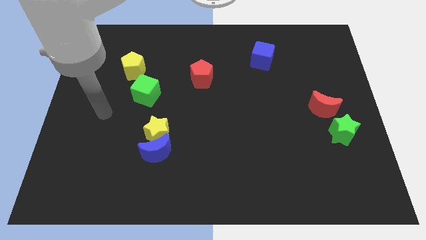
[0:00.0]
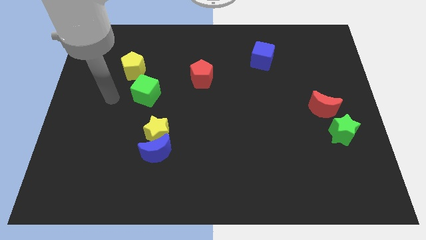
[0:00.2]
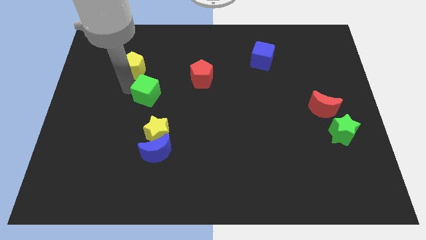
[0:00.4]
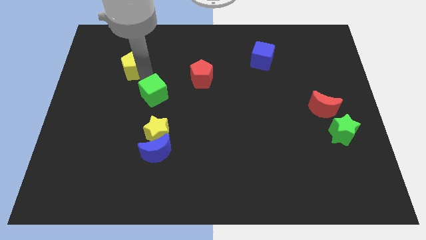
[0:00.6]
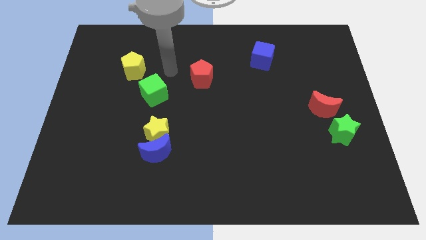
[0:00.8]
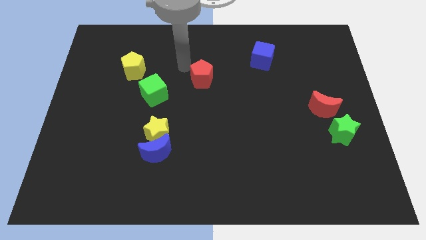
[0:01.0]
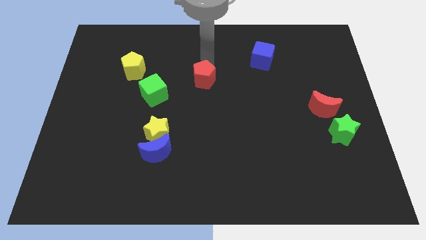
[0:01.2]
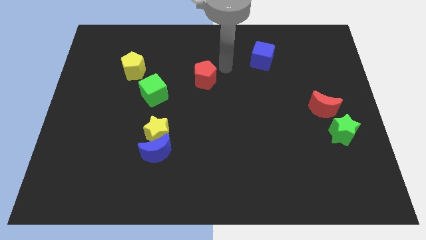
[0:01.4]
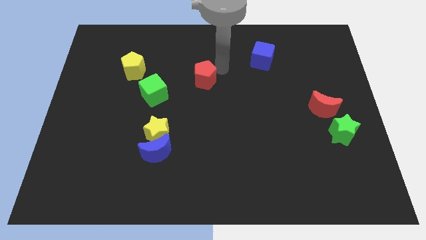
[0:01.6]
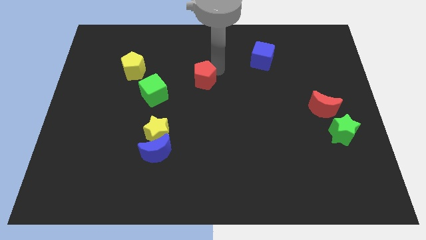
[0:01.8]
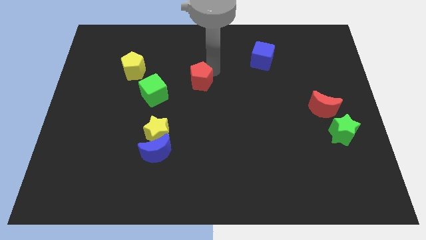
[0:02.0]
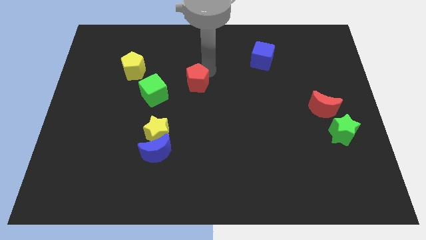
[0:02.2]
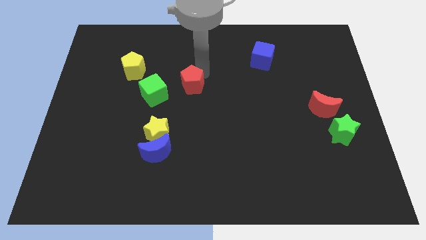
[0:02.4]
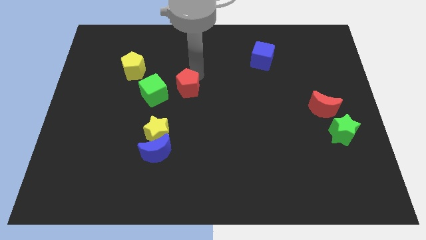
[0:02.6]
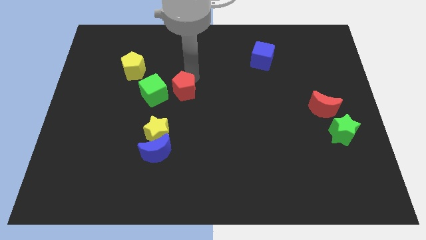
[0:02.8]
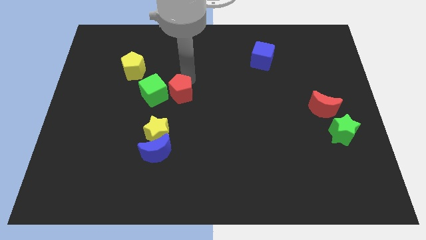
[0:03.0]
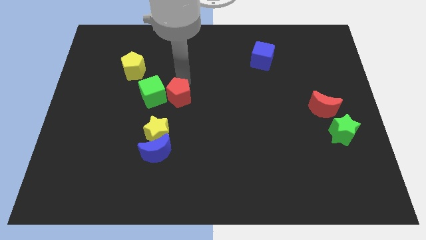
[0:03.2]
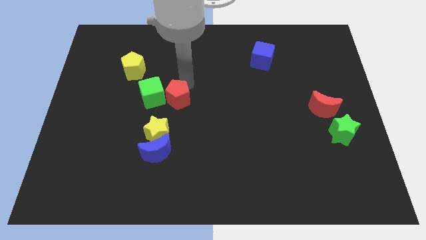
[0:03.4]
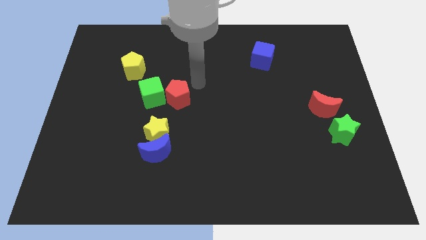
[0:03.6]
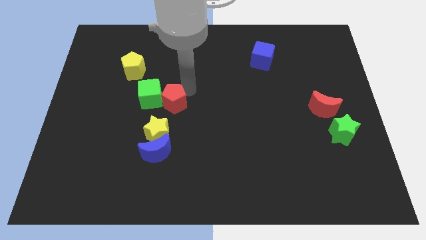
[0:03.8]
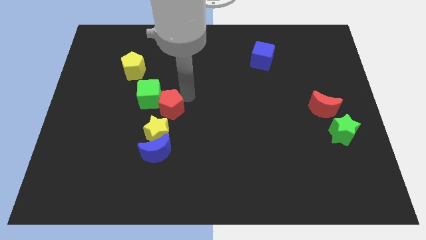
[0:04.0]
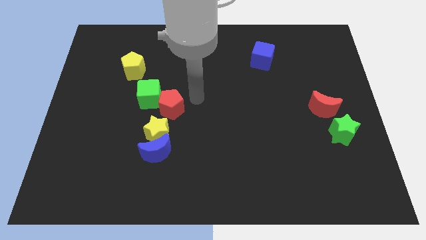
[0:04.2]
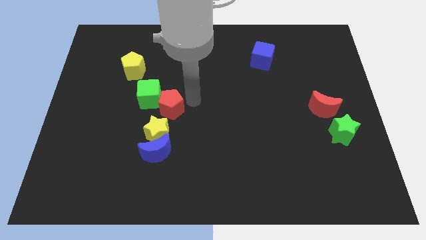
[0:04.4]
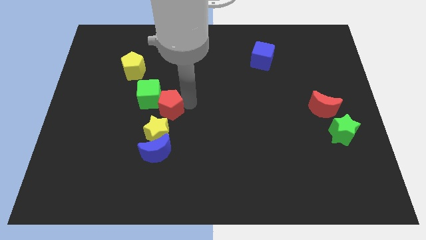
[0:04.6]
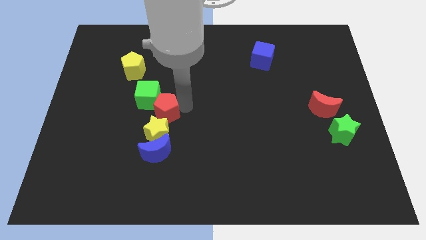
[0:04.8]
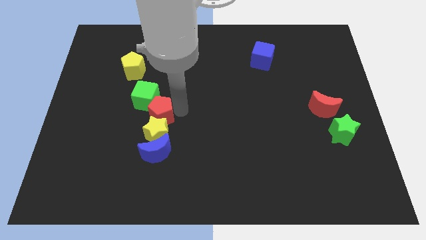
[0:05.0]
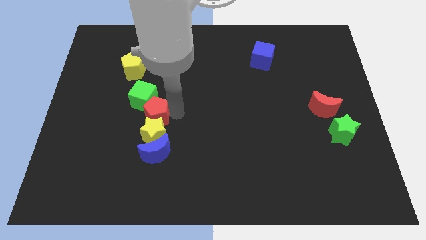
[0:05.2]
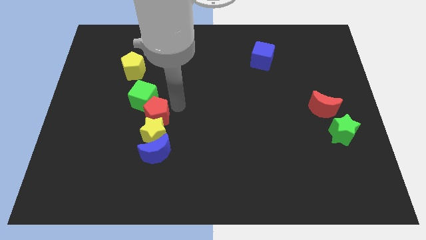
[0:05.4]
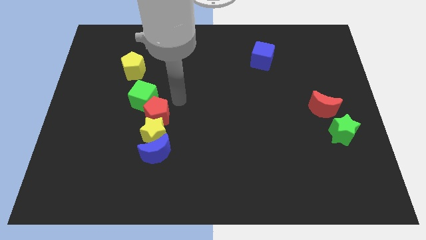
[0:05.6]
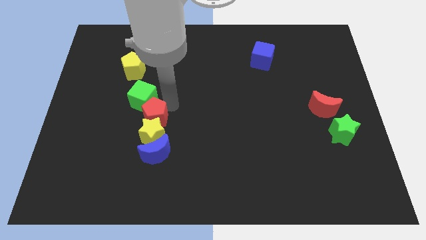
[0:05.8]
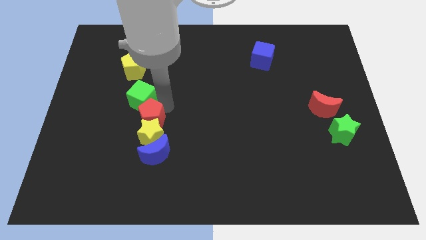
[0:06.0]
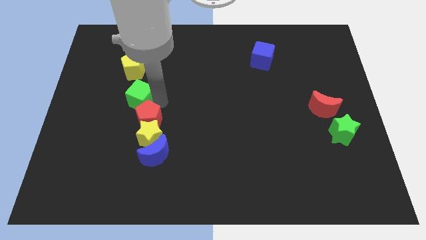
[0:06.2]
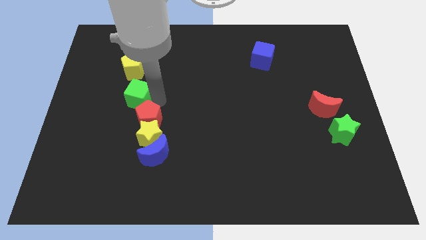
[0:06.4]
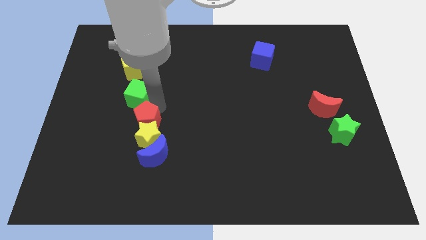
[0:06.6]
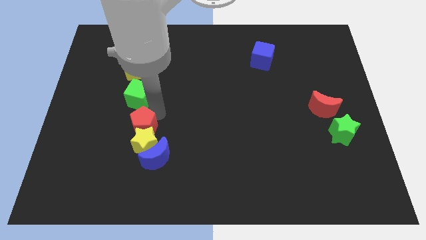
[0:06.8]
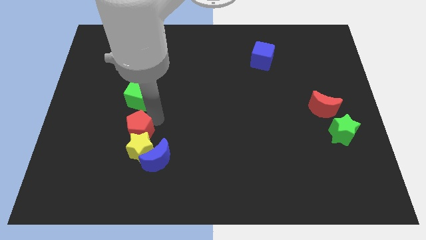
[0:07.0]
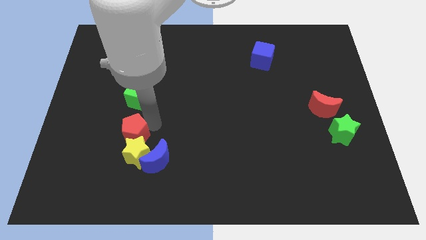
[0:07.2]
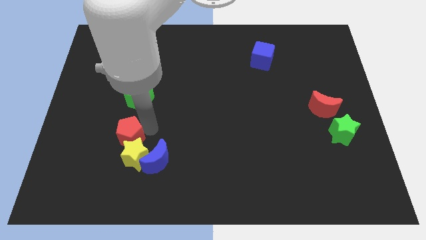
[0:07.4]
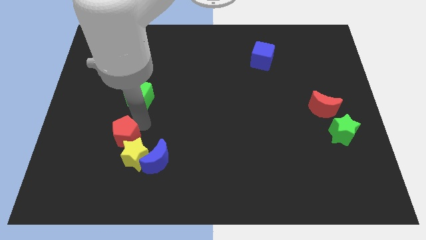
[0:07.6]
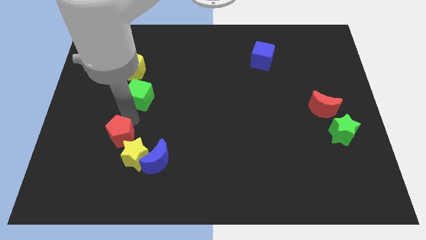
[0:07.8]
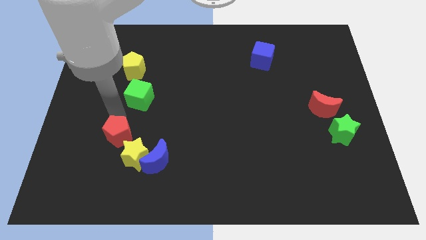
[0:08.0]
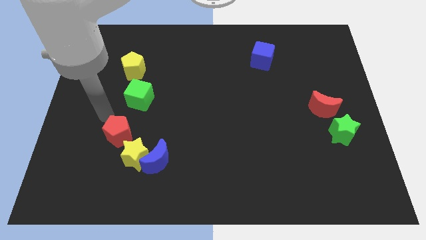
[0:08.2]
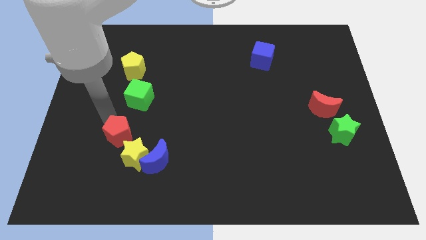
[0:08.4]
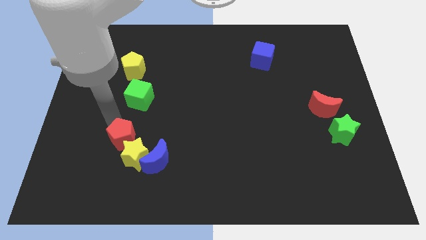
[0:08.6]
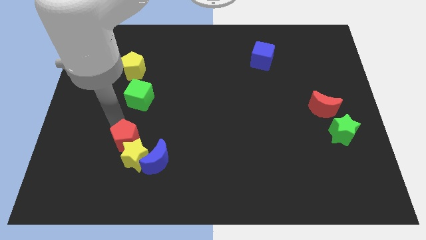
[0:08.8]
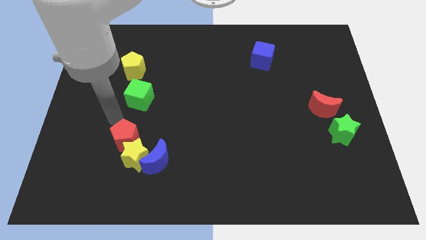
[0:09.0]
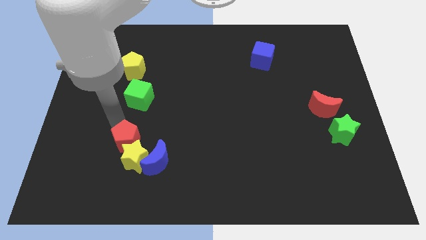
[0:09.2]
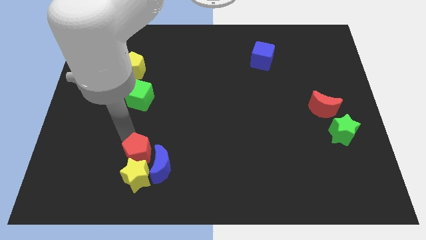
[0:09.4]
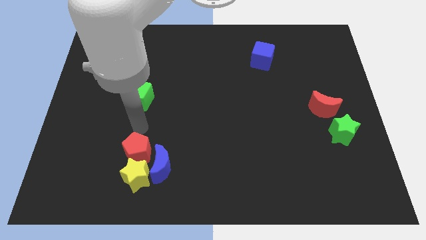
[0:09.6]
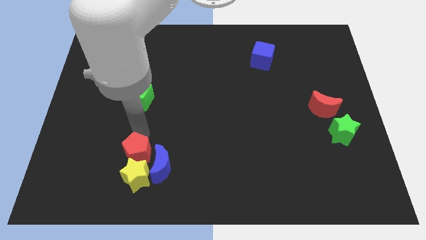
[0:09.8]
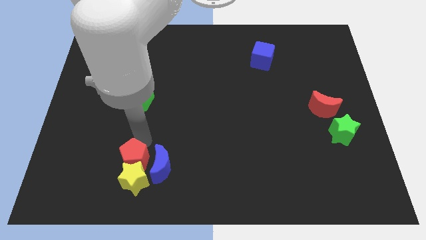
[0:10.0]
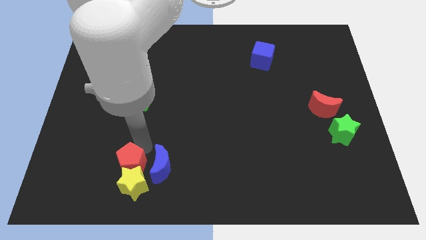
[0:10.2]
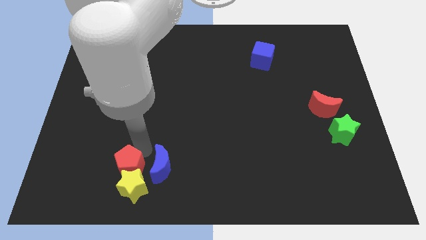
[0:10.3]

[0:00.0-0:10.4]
put the red pentagon to the bottom left of the blue moon

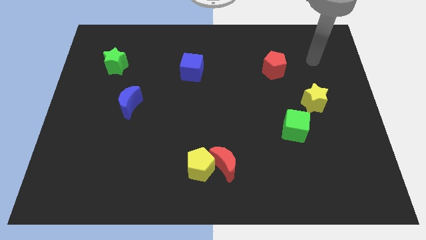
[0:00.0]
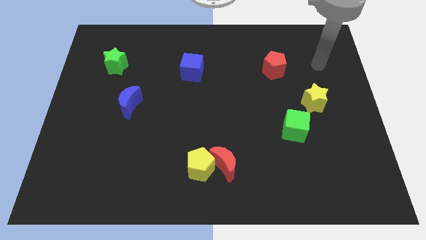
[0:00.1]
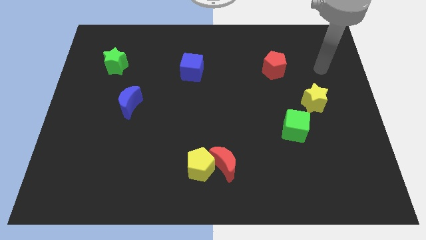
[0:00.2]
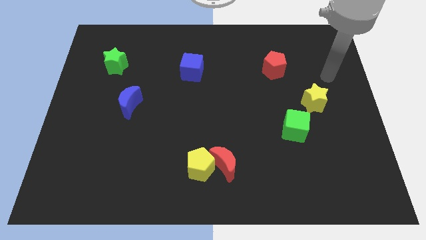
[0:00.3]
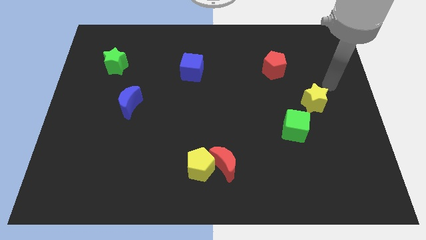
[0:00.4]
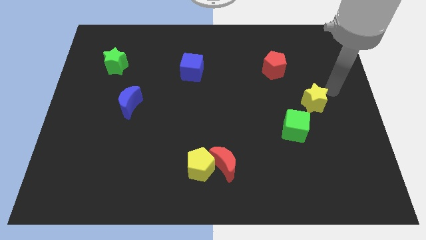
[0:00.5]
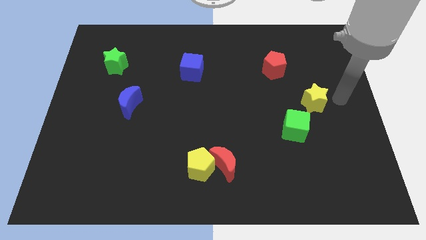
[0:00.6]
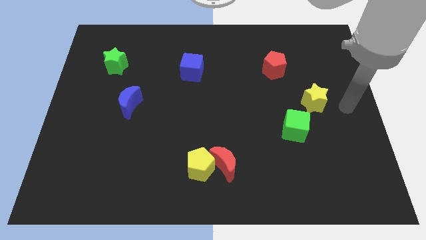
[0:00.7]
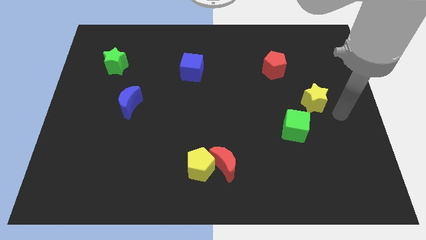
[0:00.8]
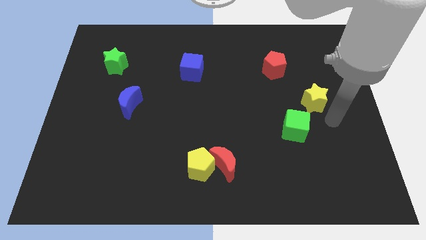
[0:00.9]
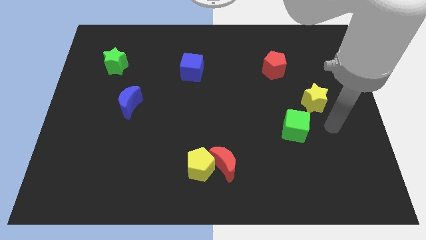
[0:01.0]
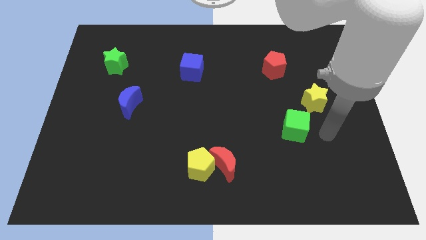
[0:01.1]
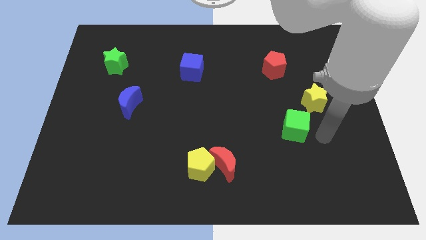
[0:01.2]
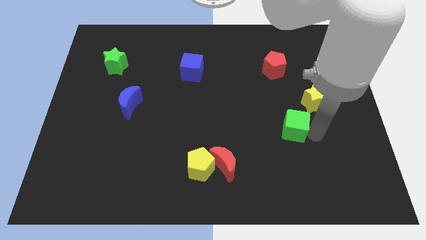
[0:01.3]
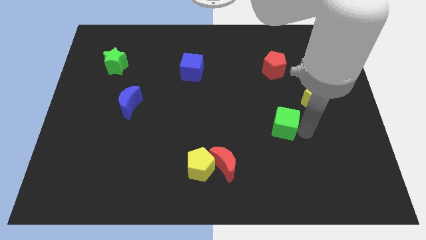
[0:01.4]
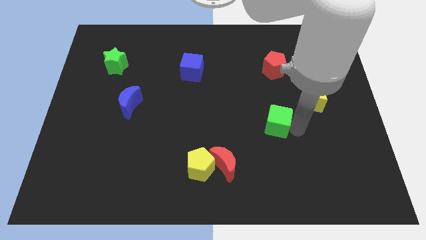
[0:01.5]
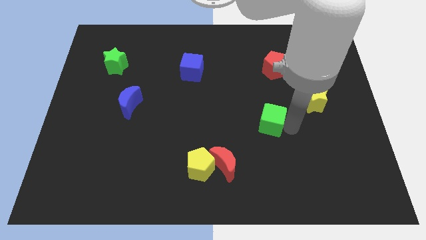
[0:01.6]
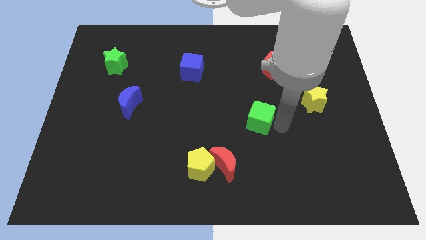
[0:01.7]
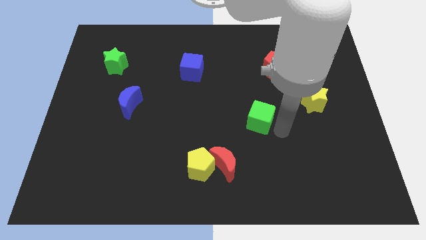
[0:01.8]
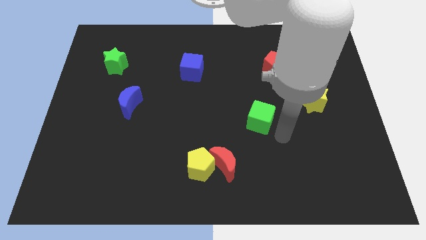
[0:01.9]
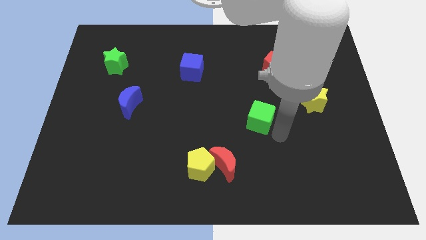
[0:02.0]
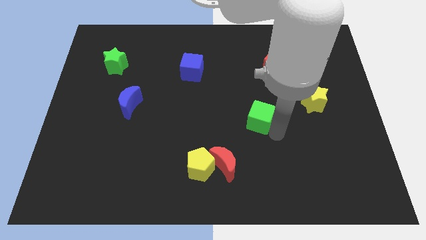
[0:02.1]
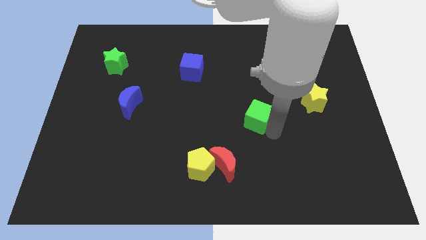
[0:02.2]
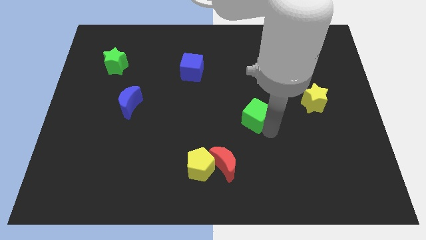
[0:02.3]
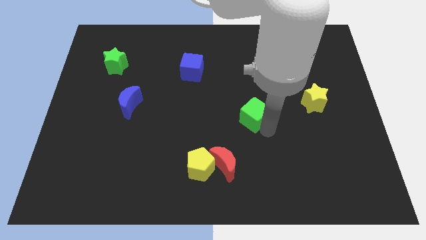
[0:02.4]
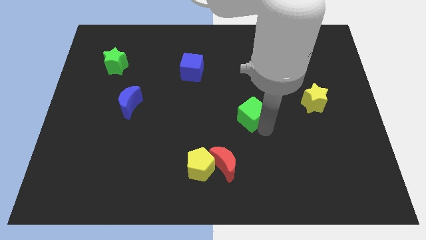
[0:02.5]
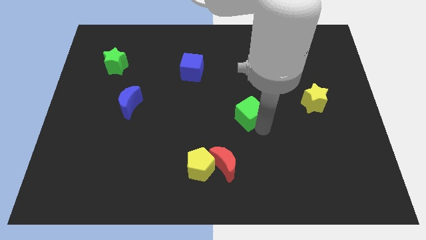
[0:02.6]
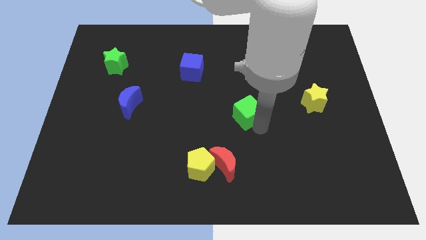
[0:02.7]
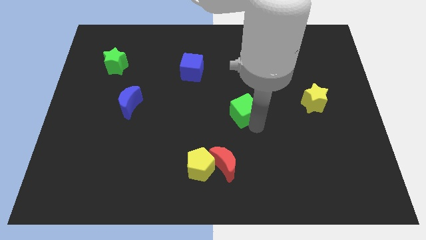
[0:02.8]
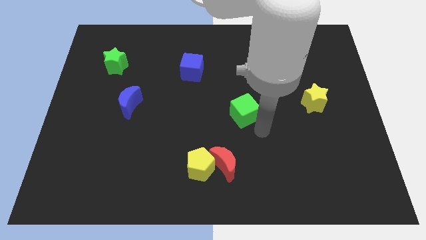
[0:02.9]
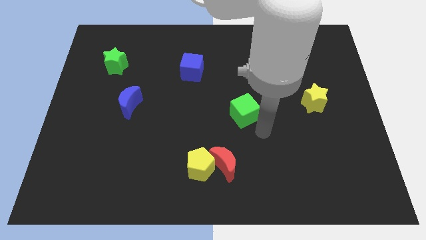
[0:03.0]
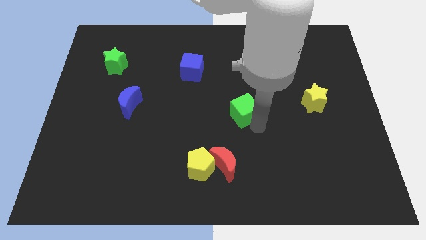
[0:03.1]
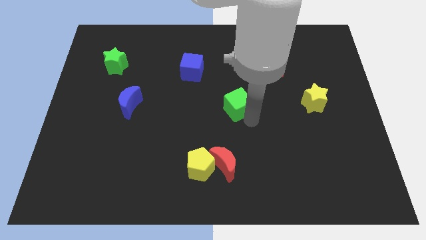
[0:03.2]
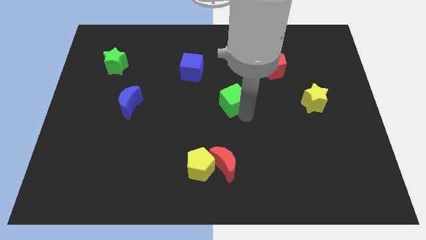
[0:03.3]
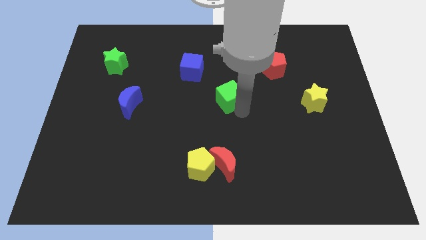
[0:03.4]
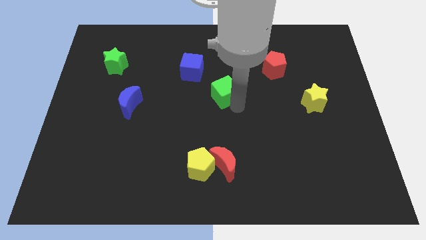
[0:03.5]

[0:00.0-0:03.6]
push the green cube to the bottom right side of the blue cube
